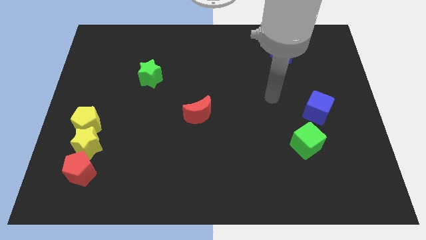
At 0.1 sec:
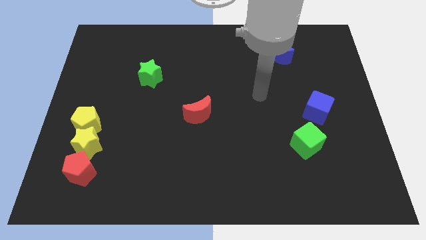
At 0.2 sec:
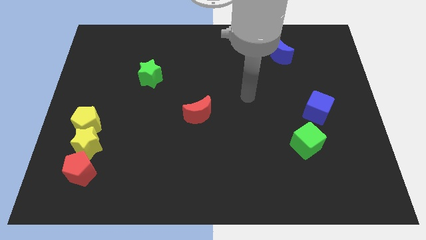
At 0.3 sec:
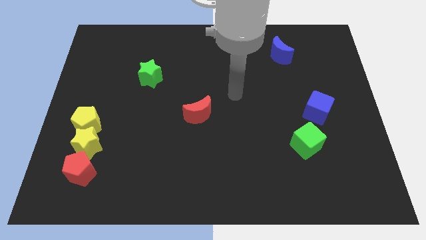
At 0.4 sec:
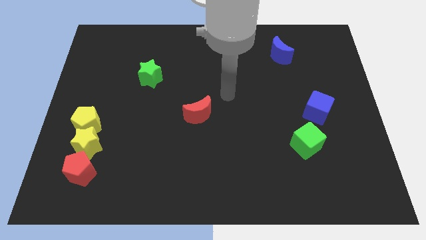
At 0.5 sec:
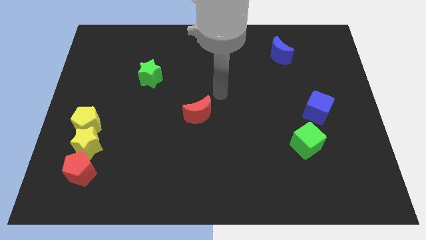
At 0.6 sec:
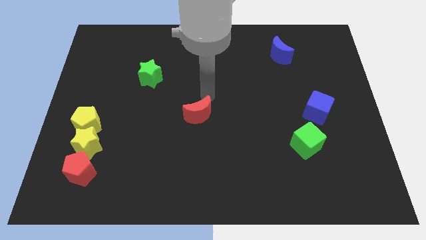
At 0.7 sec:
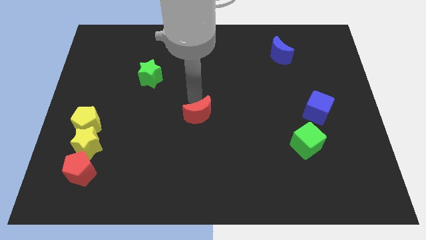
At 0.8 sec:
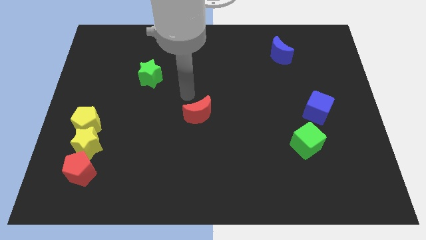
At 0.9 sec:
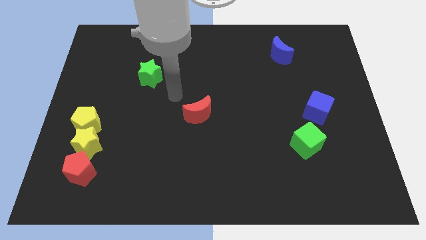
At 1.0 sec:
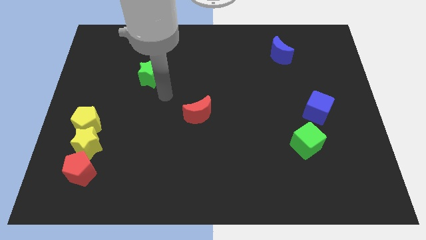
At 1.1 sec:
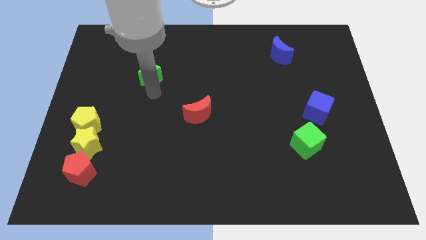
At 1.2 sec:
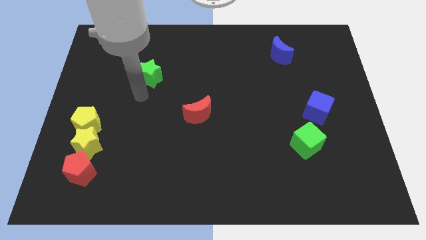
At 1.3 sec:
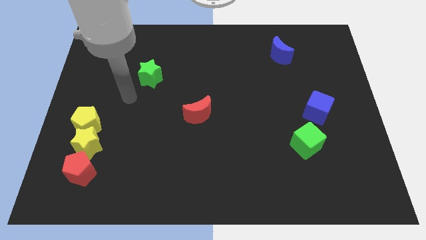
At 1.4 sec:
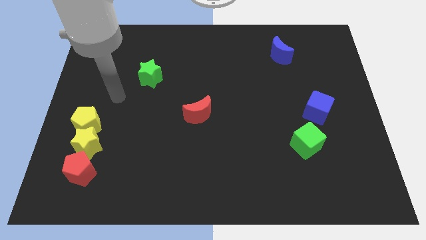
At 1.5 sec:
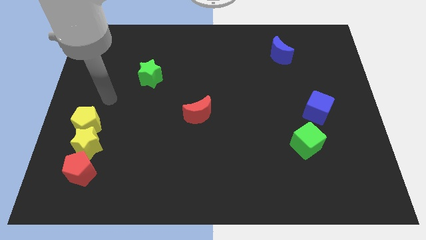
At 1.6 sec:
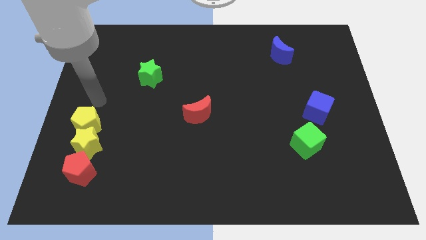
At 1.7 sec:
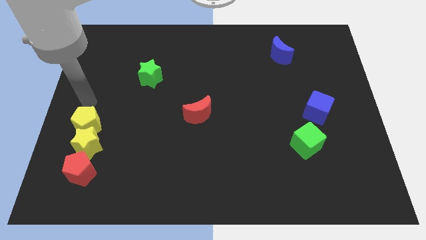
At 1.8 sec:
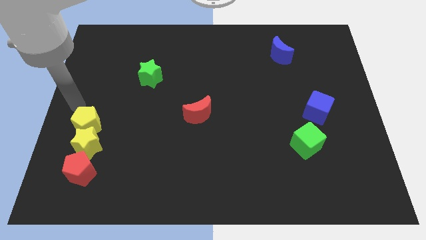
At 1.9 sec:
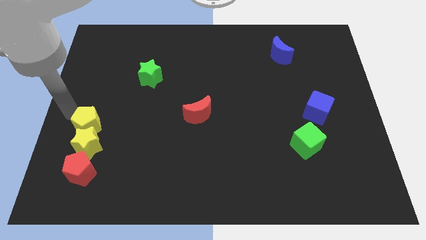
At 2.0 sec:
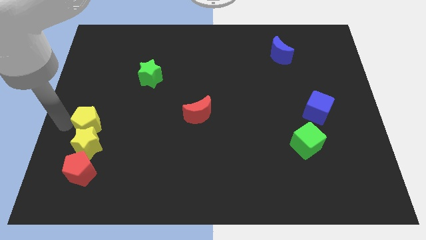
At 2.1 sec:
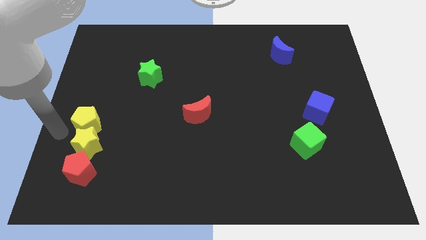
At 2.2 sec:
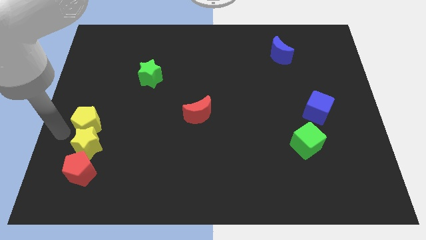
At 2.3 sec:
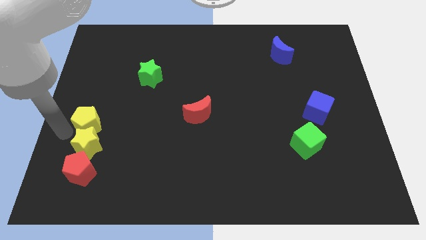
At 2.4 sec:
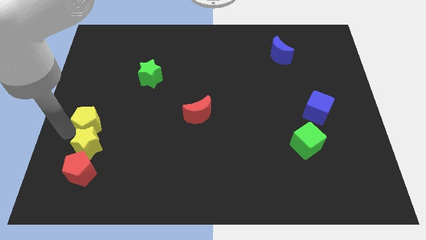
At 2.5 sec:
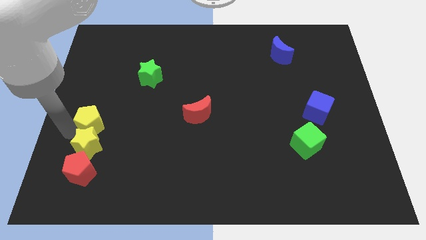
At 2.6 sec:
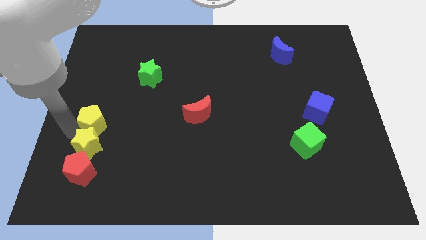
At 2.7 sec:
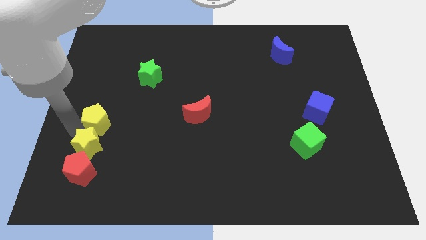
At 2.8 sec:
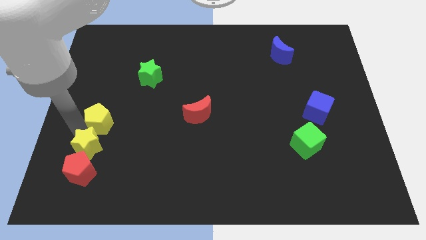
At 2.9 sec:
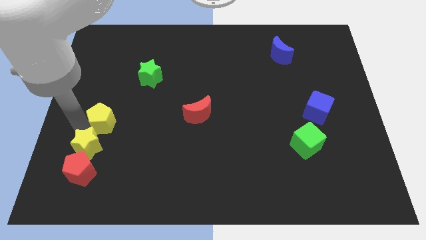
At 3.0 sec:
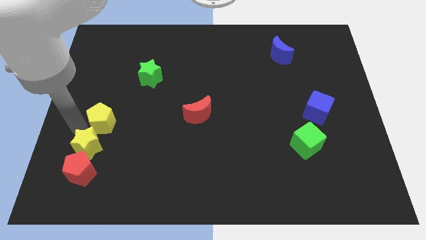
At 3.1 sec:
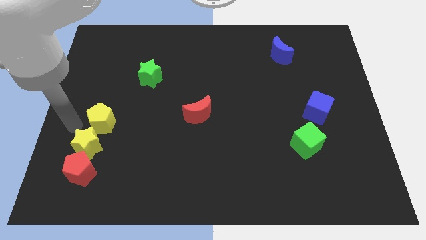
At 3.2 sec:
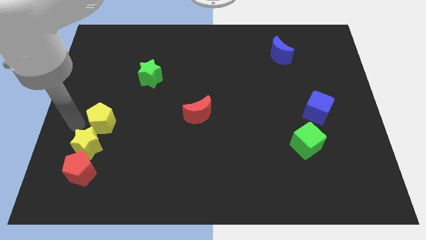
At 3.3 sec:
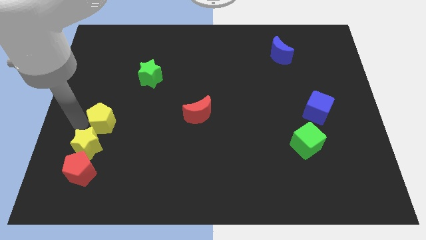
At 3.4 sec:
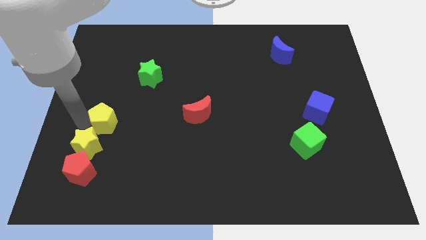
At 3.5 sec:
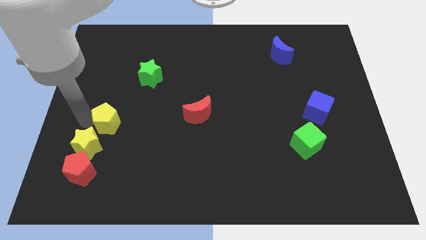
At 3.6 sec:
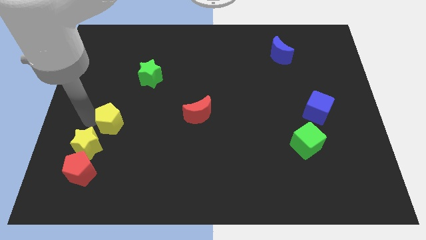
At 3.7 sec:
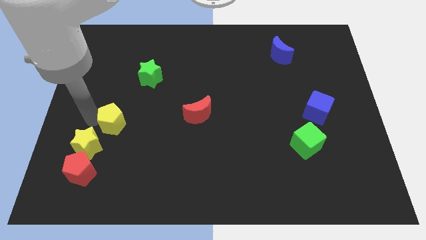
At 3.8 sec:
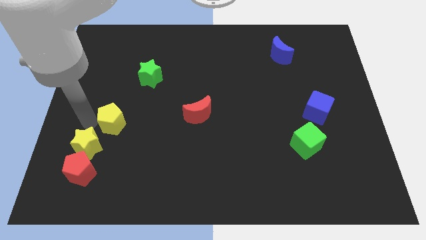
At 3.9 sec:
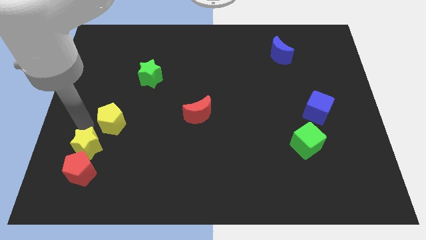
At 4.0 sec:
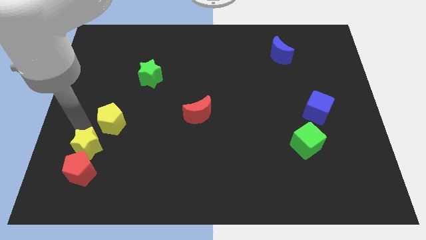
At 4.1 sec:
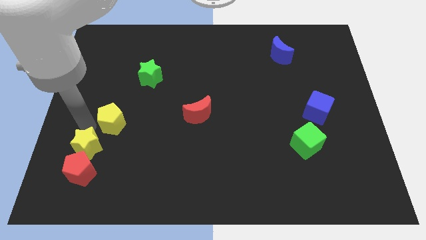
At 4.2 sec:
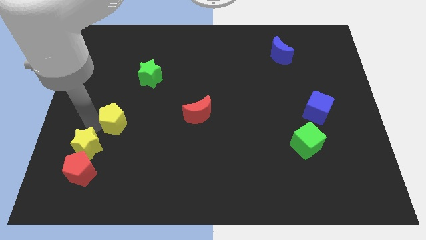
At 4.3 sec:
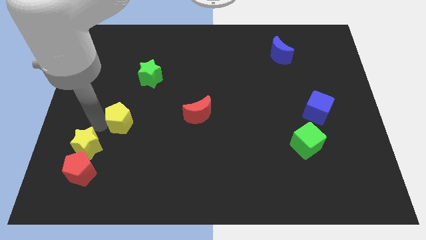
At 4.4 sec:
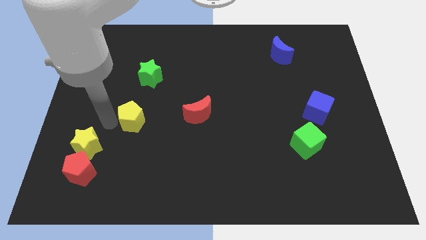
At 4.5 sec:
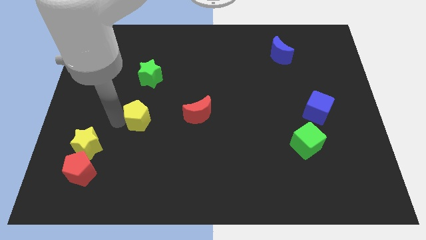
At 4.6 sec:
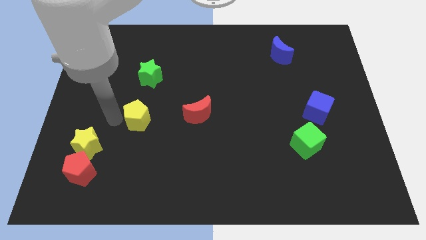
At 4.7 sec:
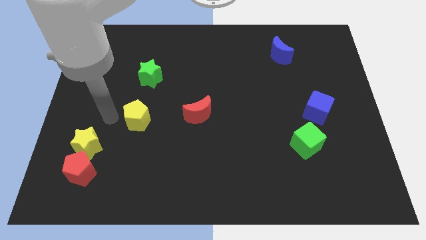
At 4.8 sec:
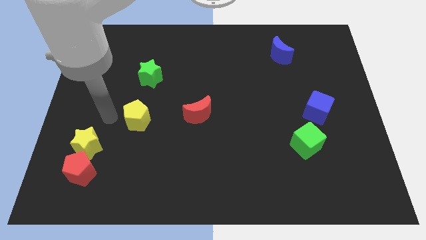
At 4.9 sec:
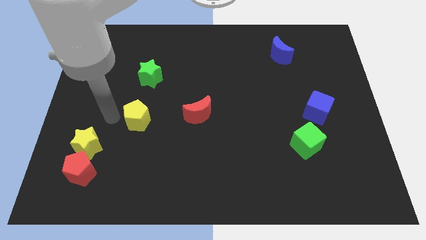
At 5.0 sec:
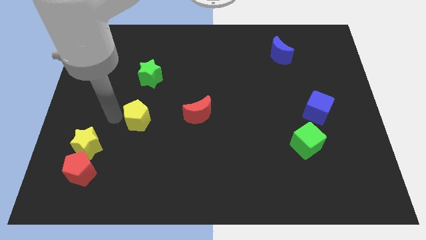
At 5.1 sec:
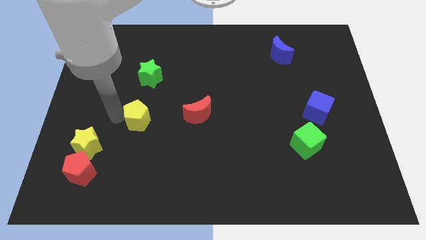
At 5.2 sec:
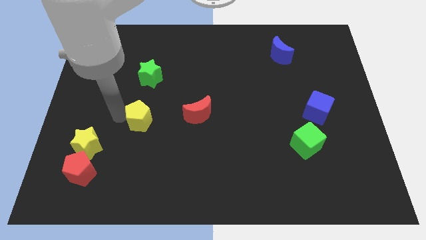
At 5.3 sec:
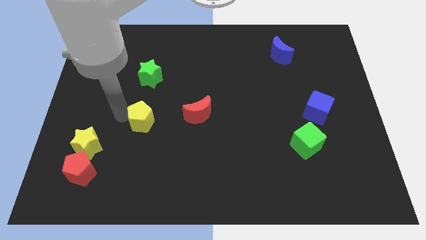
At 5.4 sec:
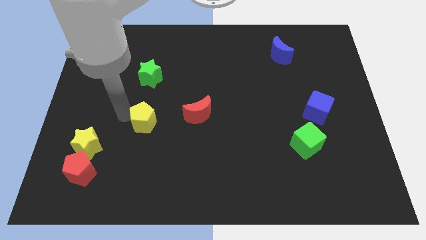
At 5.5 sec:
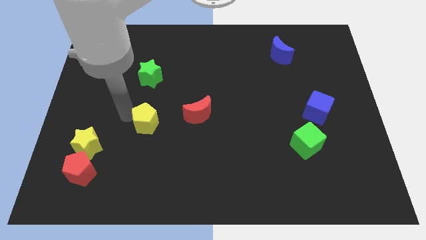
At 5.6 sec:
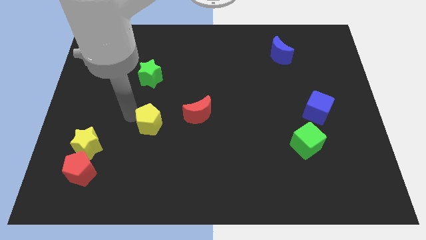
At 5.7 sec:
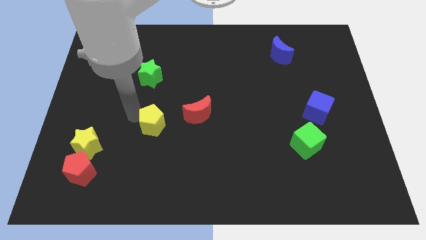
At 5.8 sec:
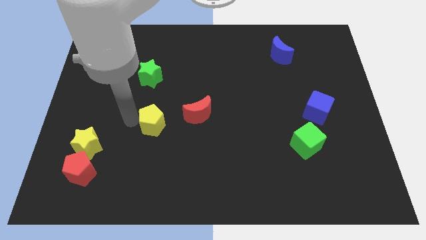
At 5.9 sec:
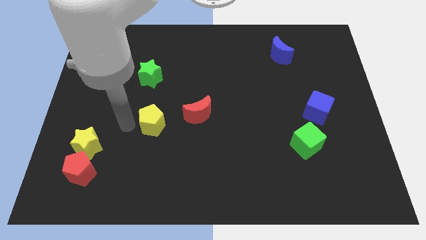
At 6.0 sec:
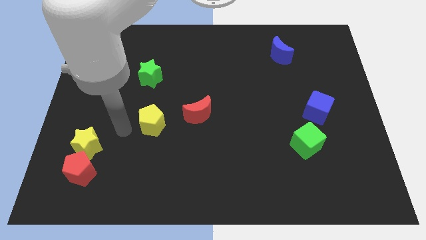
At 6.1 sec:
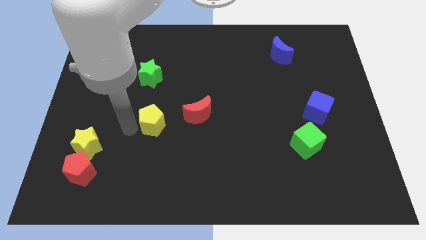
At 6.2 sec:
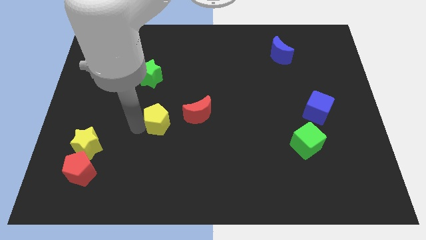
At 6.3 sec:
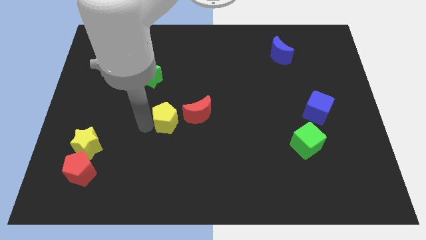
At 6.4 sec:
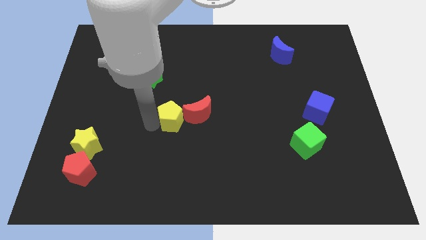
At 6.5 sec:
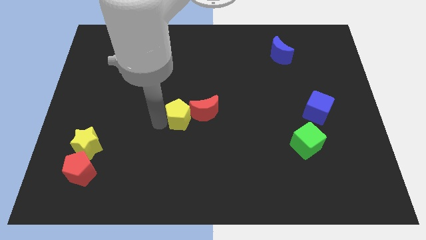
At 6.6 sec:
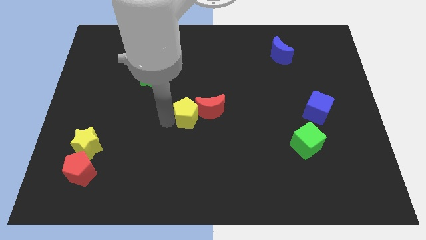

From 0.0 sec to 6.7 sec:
move the yellow pentagon close to the red moon
